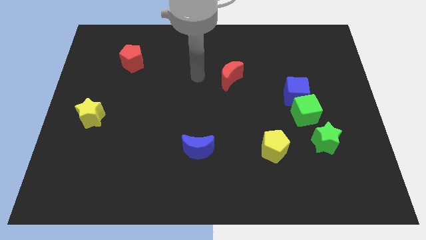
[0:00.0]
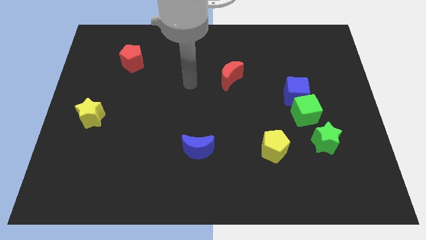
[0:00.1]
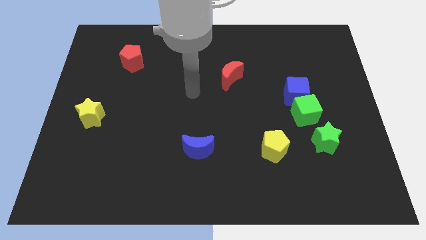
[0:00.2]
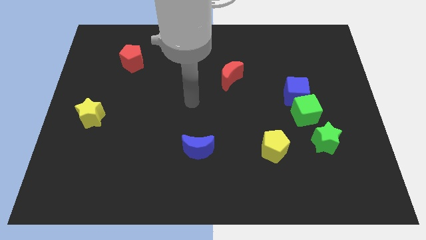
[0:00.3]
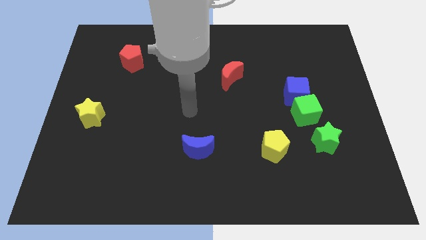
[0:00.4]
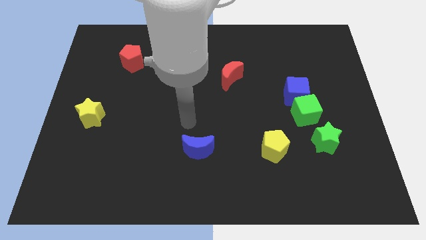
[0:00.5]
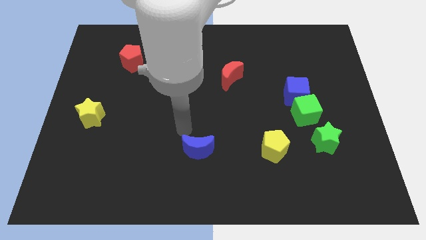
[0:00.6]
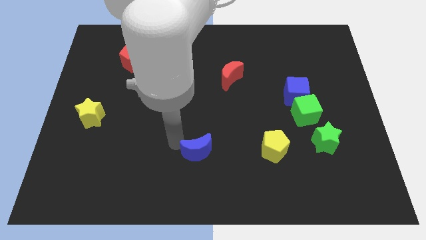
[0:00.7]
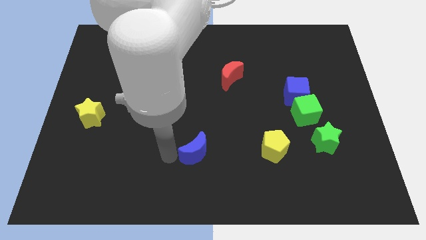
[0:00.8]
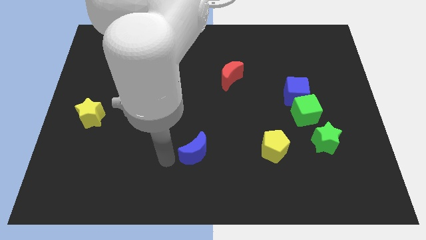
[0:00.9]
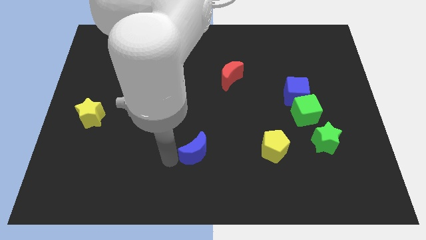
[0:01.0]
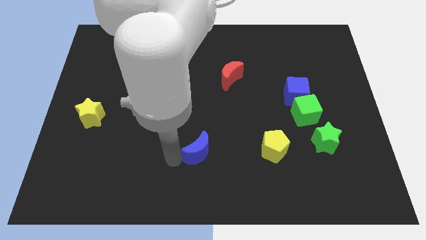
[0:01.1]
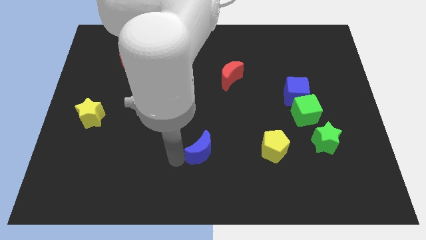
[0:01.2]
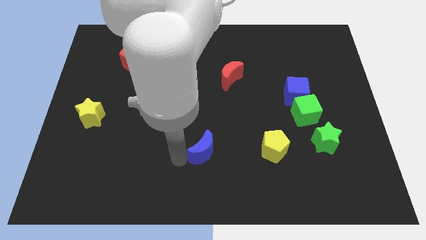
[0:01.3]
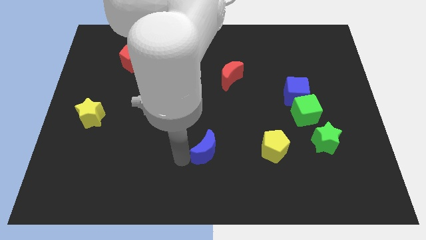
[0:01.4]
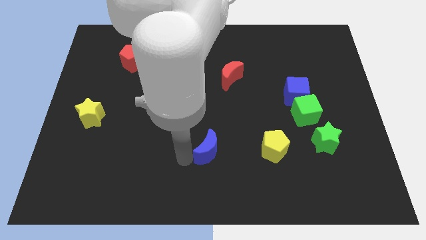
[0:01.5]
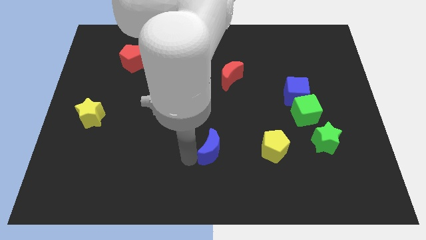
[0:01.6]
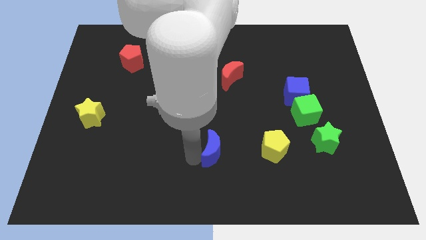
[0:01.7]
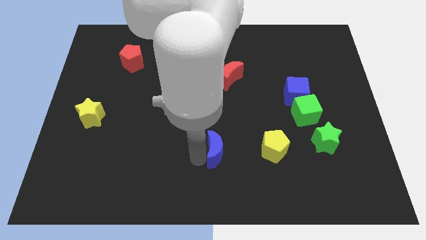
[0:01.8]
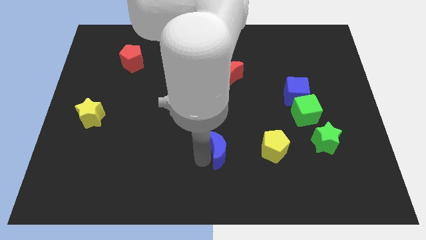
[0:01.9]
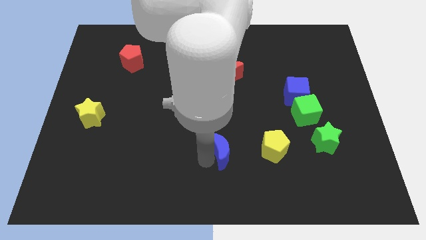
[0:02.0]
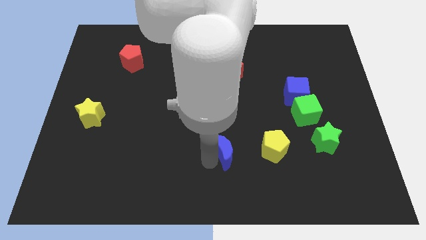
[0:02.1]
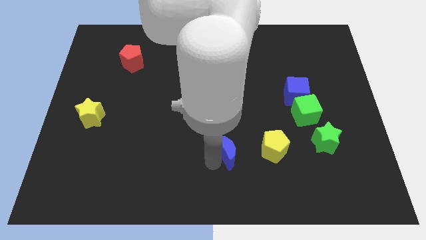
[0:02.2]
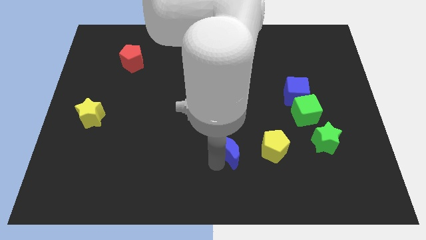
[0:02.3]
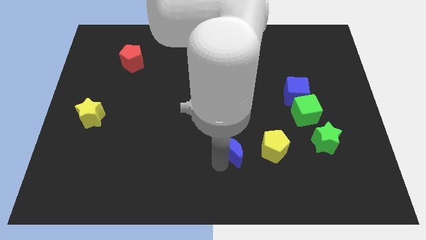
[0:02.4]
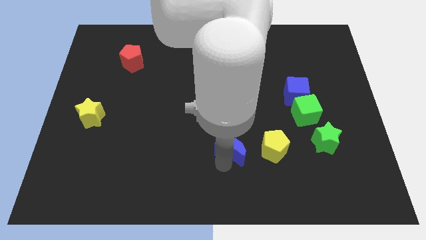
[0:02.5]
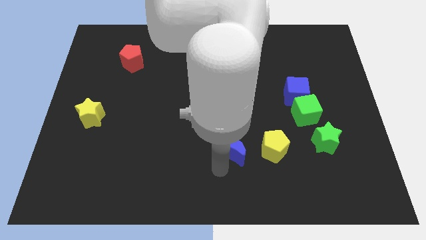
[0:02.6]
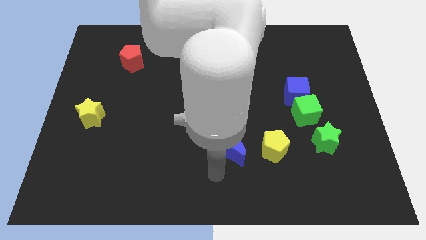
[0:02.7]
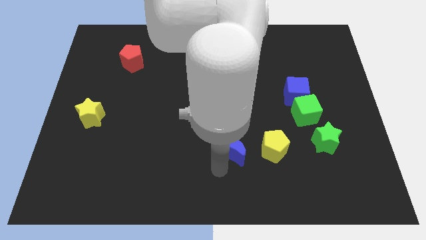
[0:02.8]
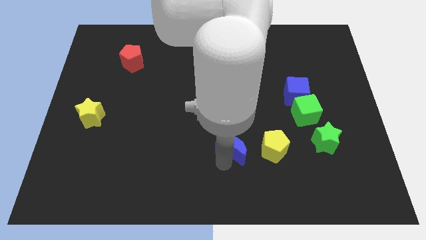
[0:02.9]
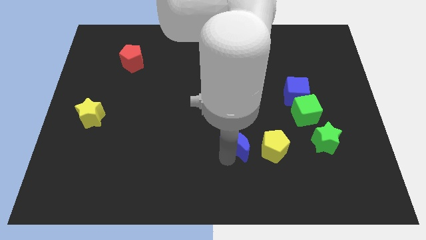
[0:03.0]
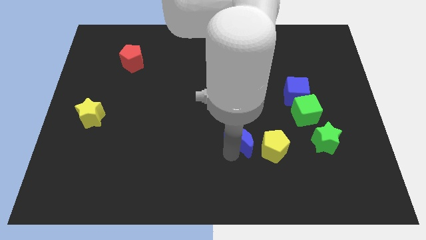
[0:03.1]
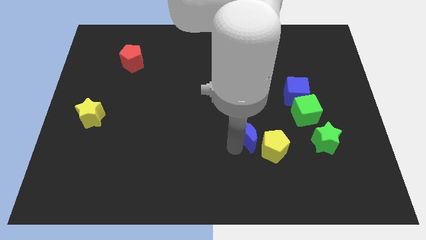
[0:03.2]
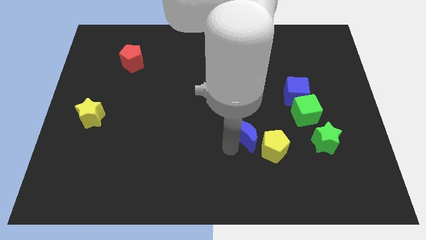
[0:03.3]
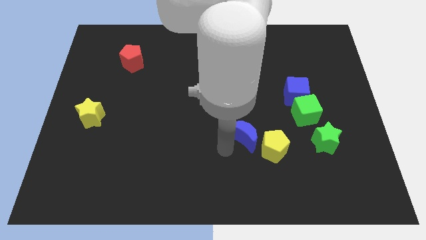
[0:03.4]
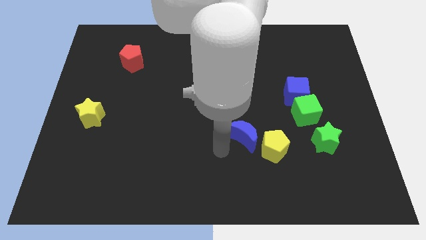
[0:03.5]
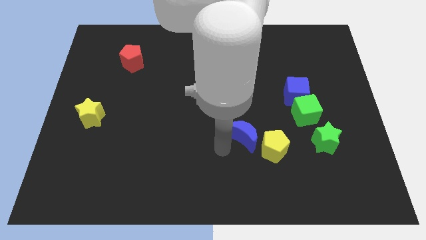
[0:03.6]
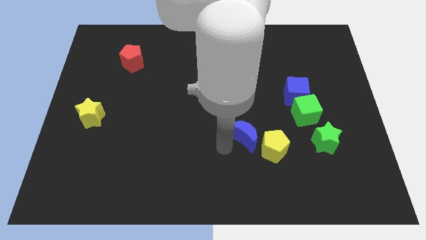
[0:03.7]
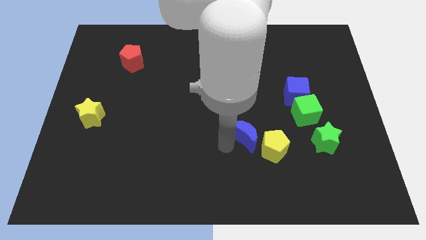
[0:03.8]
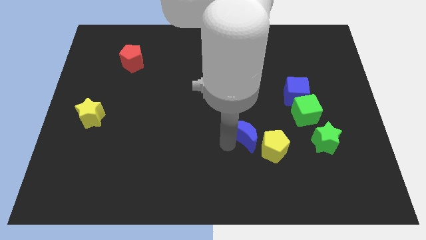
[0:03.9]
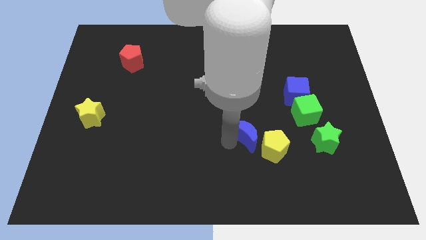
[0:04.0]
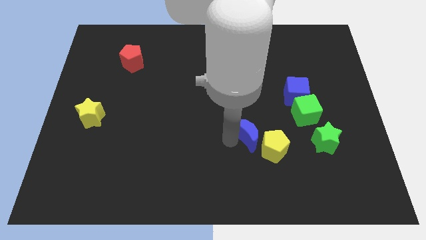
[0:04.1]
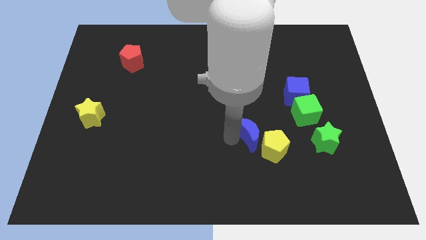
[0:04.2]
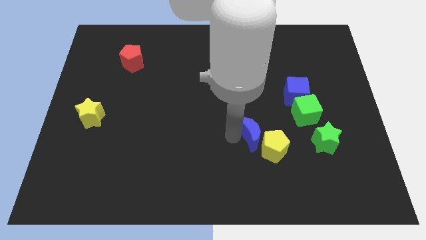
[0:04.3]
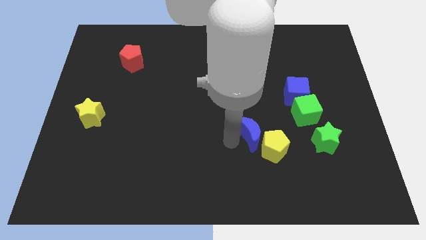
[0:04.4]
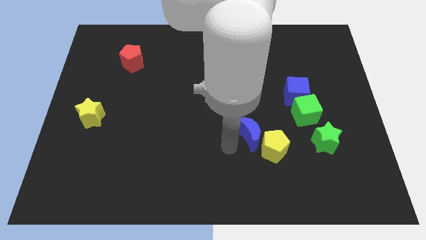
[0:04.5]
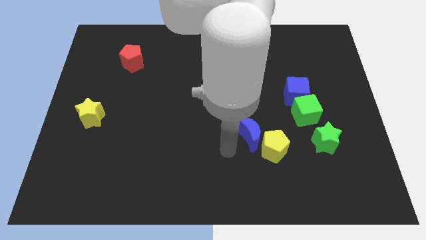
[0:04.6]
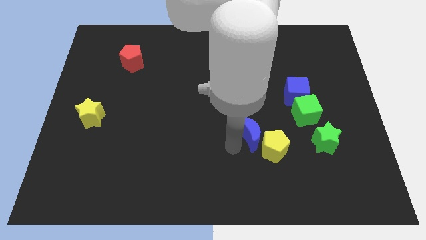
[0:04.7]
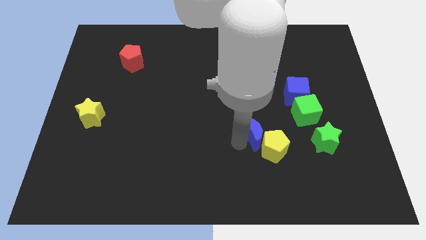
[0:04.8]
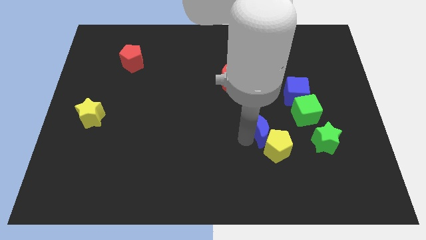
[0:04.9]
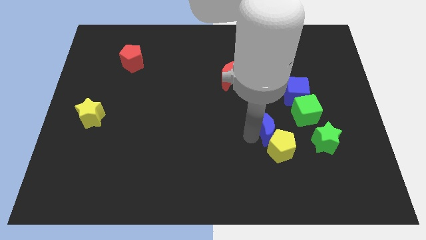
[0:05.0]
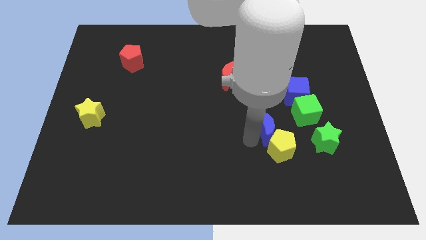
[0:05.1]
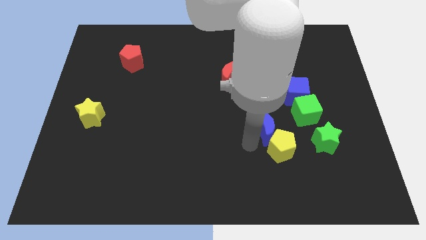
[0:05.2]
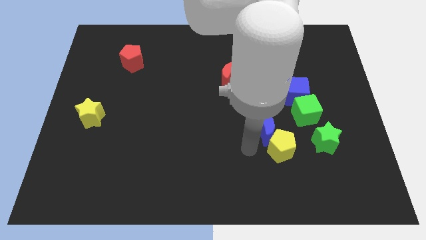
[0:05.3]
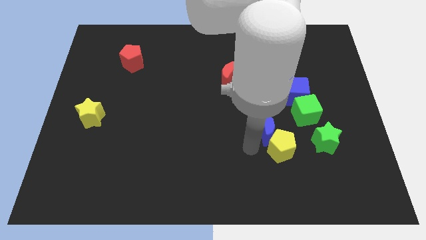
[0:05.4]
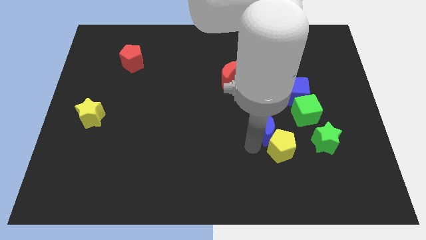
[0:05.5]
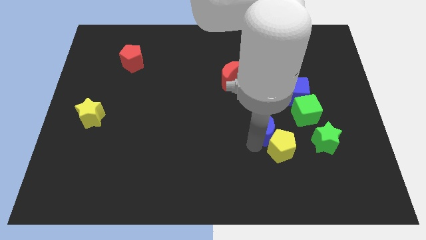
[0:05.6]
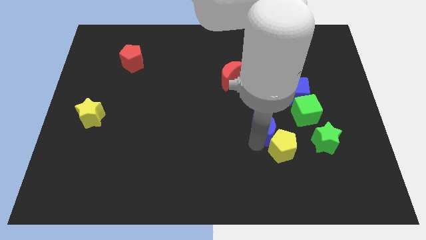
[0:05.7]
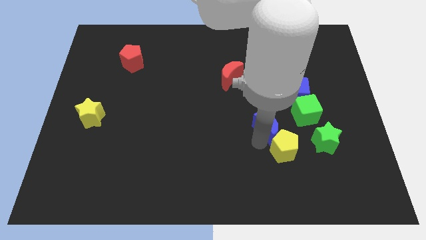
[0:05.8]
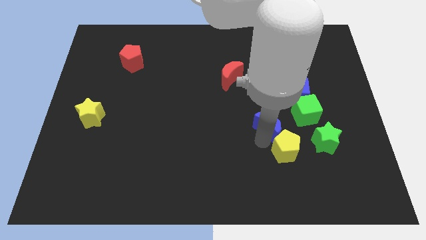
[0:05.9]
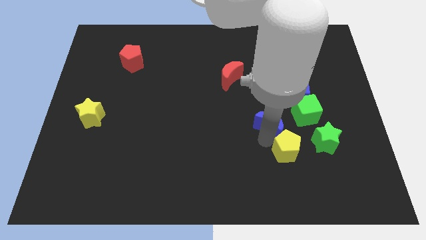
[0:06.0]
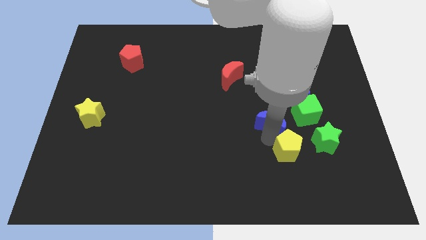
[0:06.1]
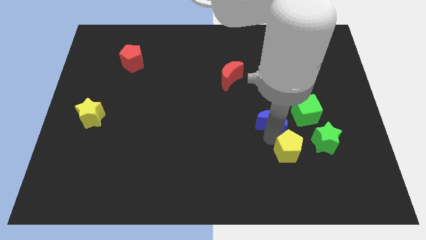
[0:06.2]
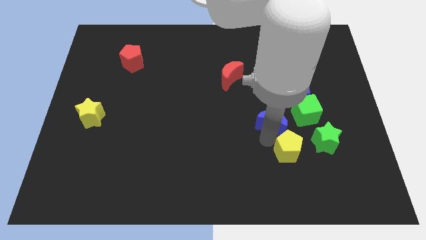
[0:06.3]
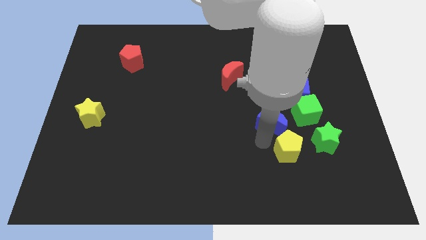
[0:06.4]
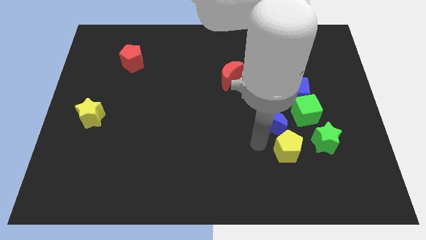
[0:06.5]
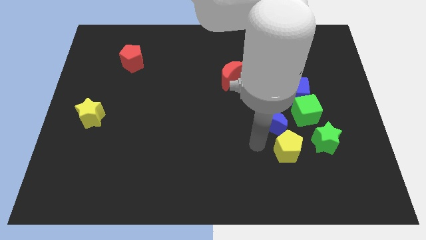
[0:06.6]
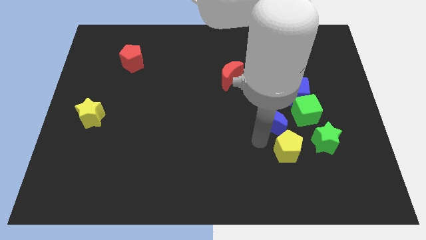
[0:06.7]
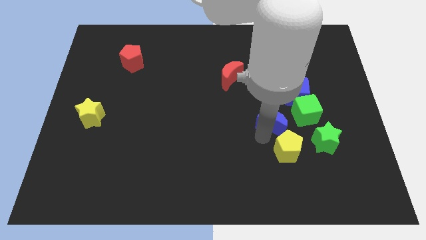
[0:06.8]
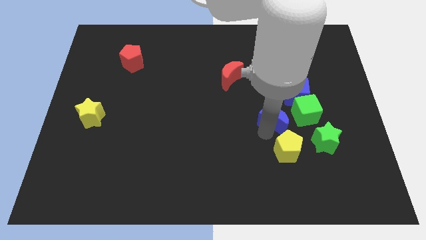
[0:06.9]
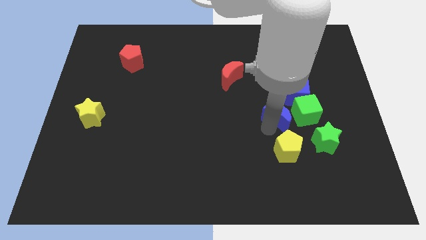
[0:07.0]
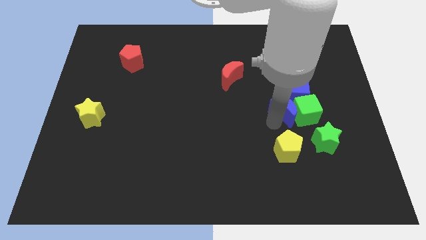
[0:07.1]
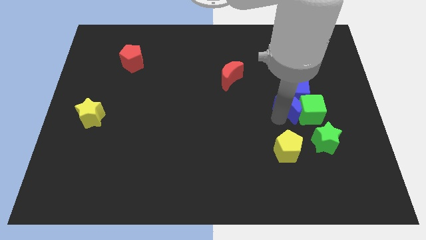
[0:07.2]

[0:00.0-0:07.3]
slide the blue moon to the blue cube

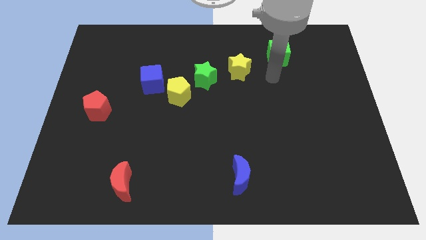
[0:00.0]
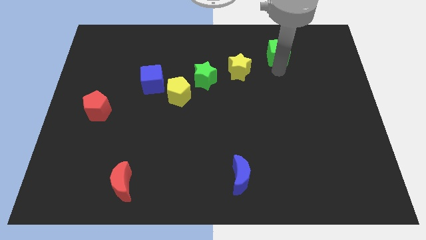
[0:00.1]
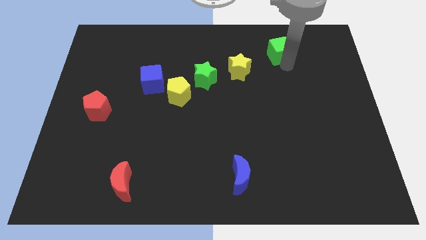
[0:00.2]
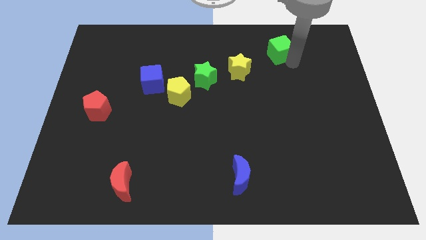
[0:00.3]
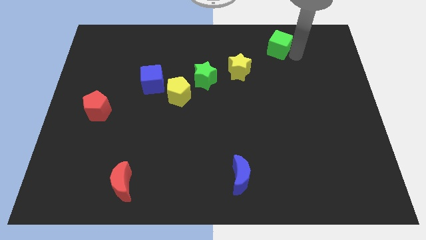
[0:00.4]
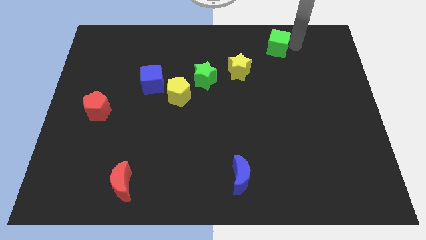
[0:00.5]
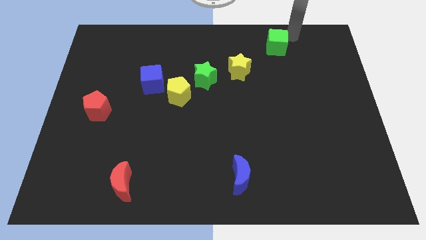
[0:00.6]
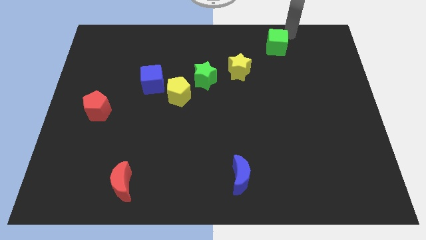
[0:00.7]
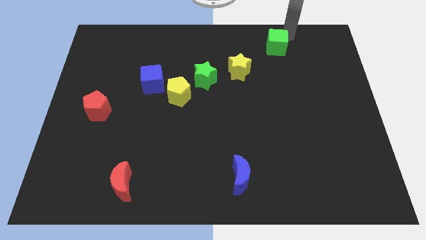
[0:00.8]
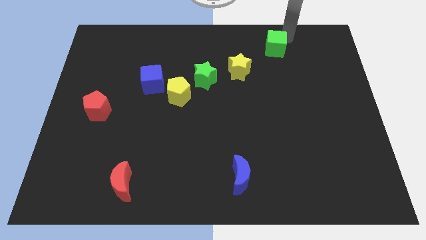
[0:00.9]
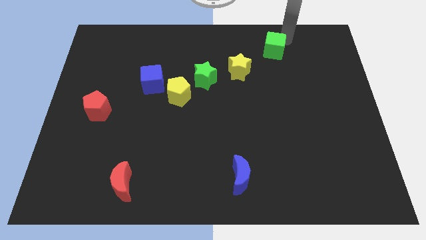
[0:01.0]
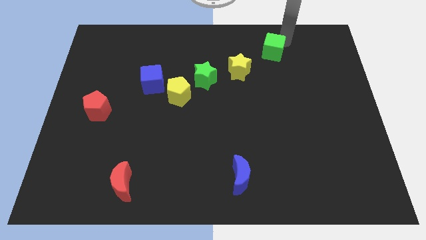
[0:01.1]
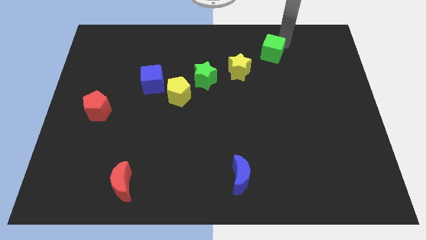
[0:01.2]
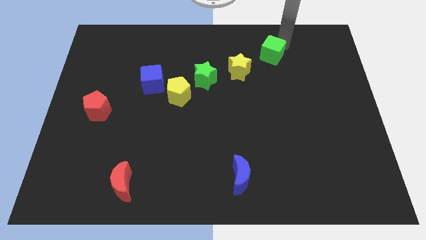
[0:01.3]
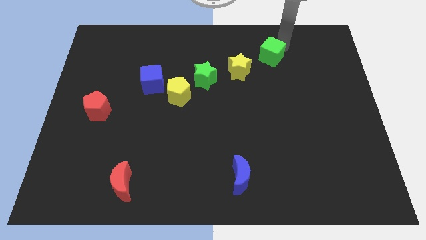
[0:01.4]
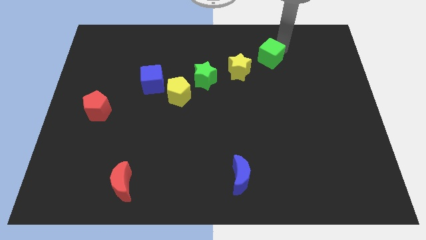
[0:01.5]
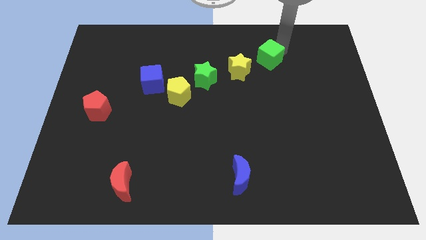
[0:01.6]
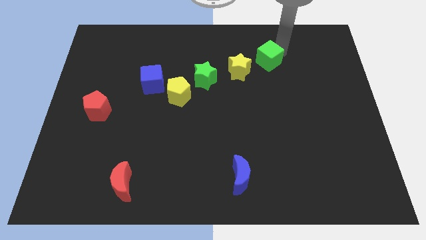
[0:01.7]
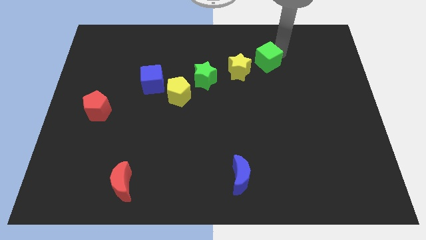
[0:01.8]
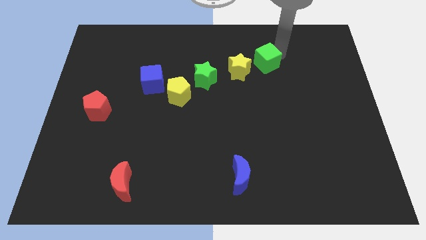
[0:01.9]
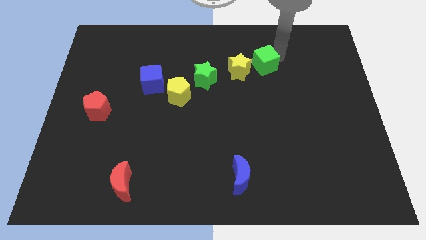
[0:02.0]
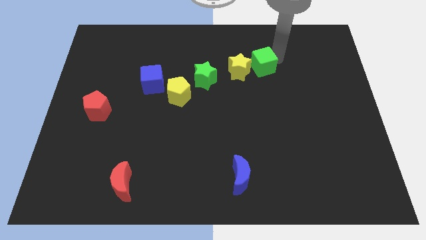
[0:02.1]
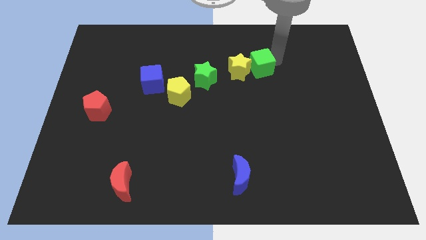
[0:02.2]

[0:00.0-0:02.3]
move the green cube close to the yellow star
